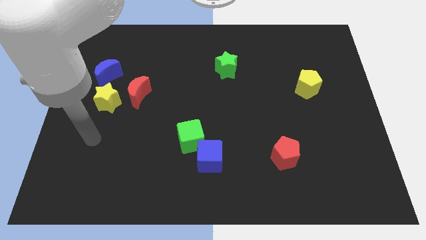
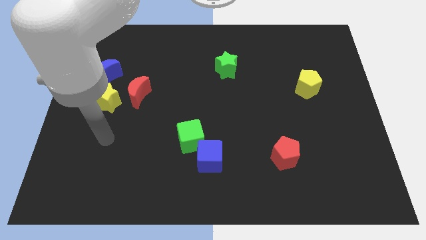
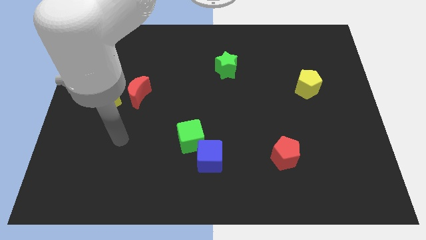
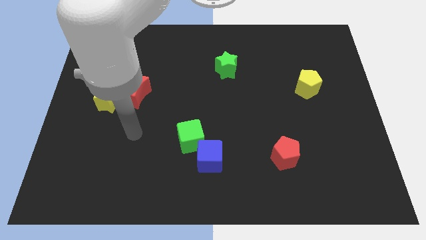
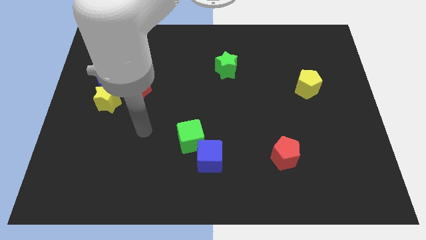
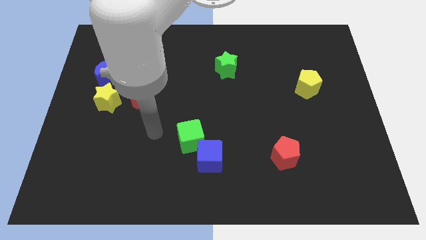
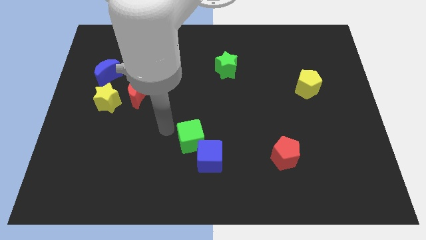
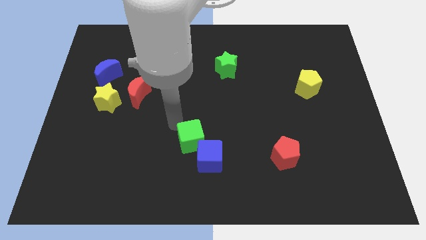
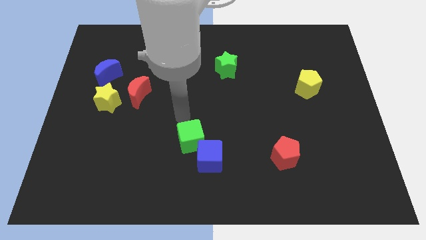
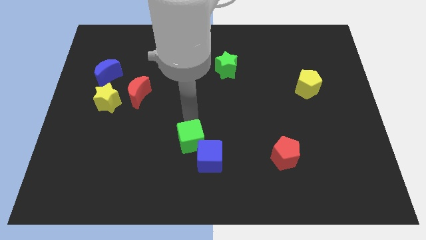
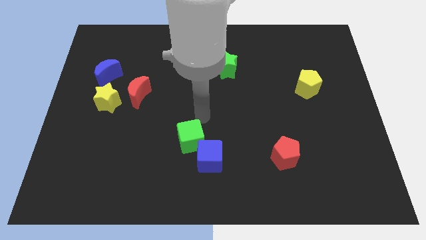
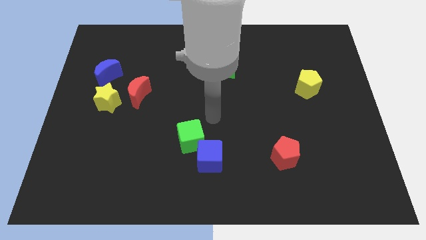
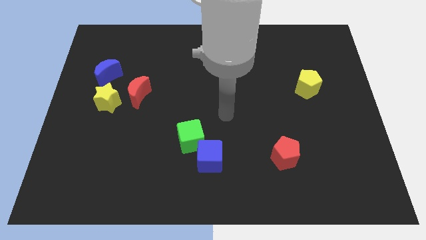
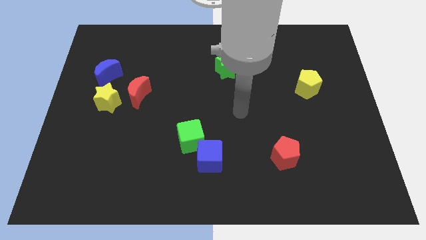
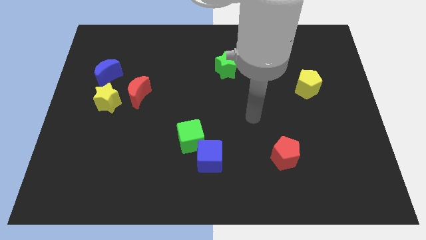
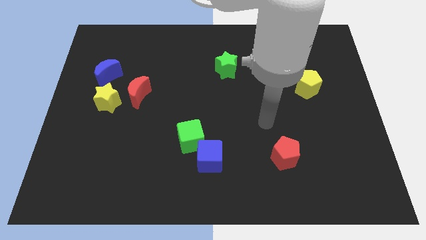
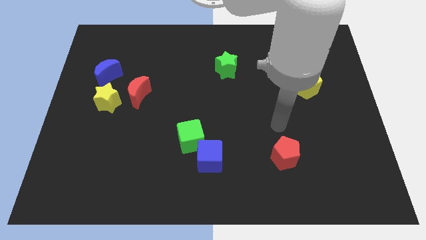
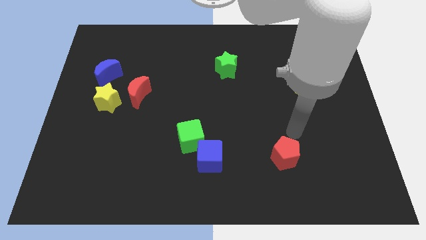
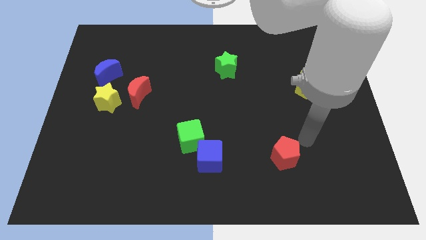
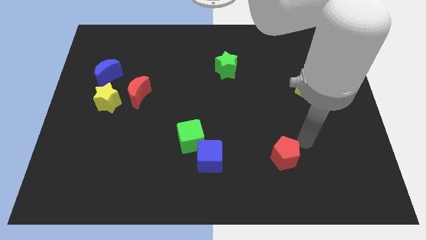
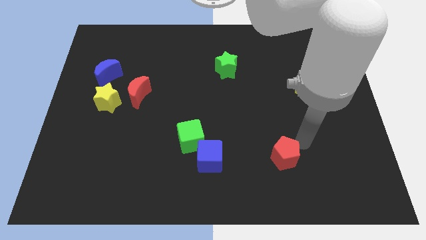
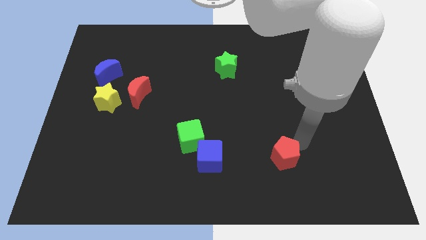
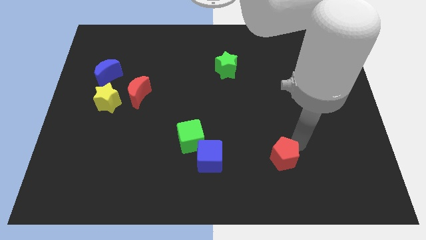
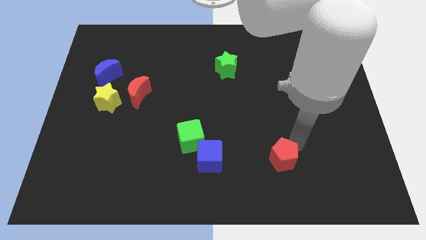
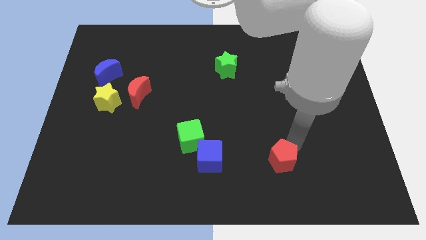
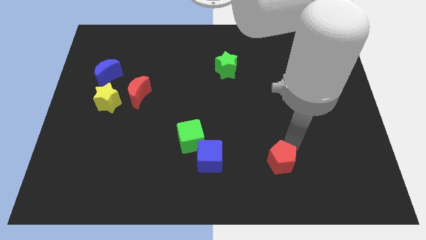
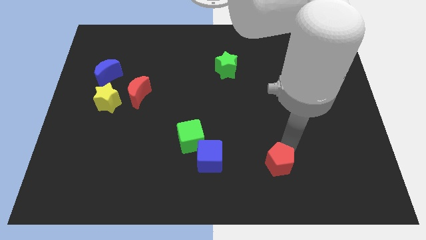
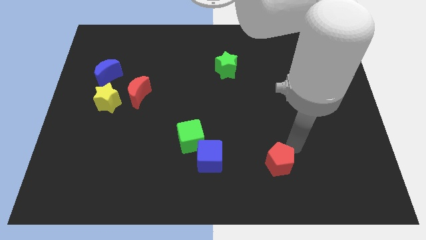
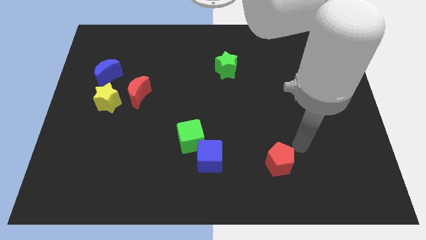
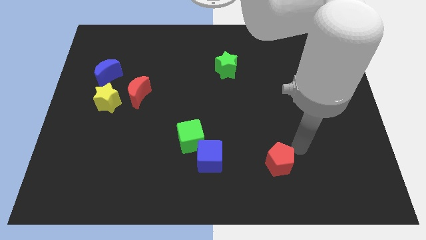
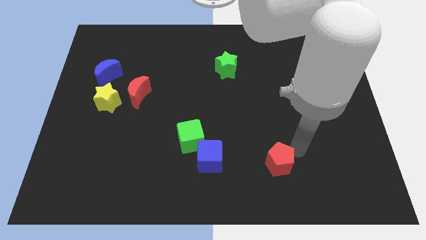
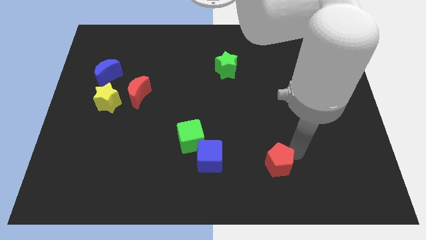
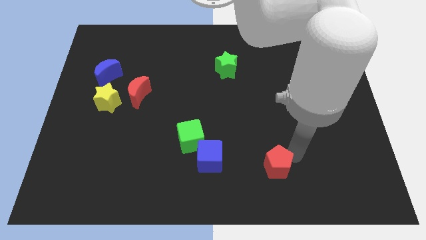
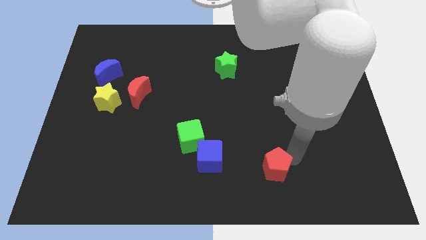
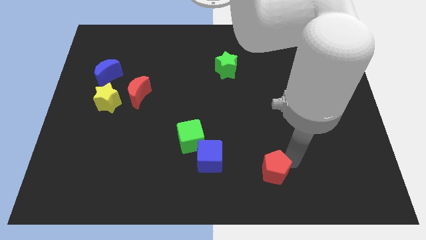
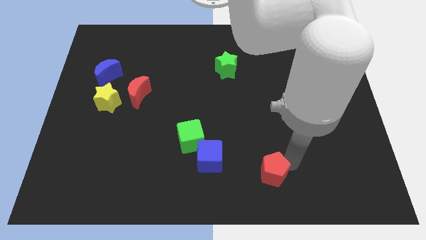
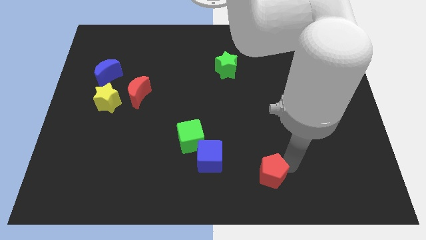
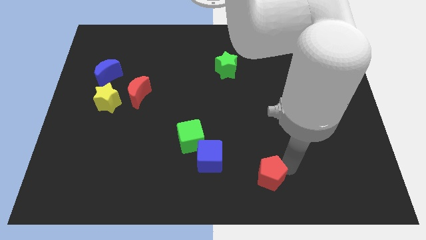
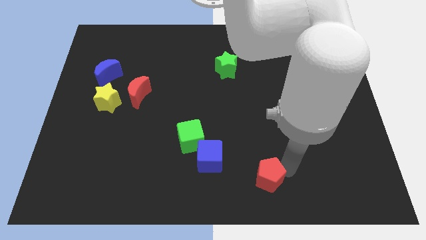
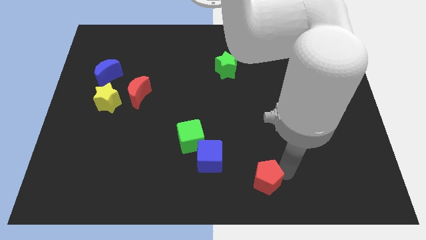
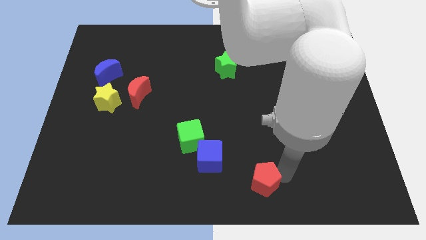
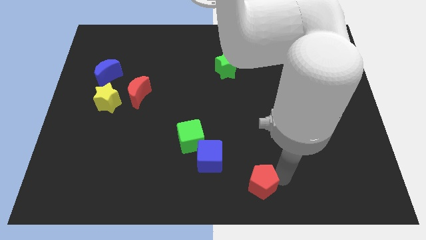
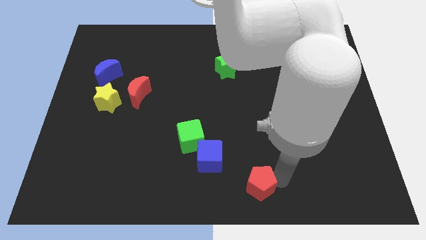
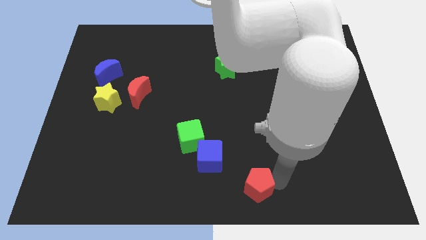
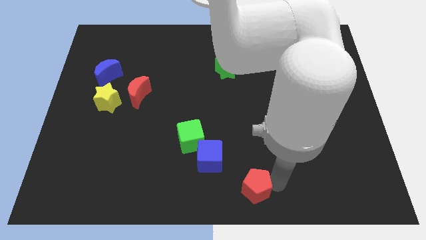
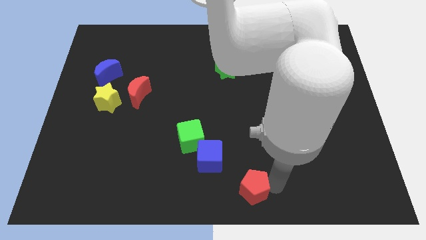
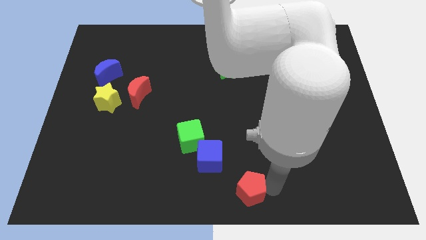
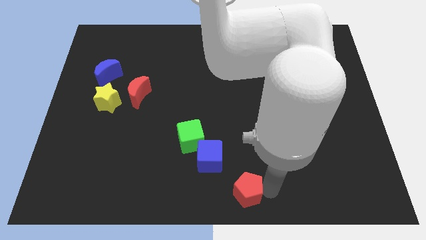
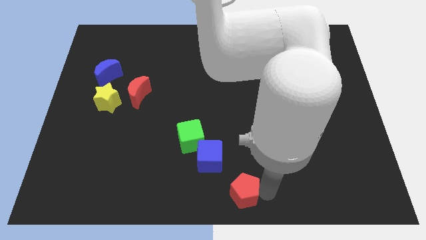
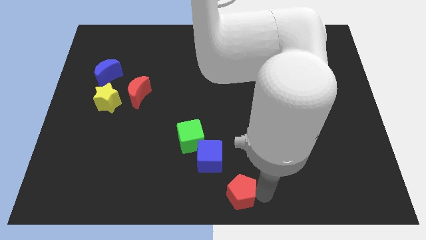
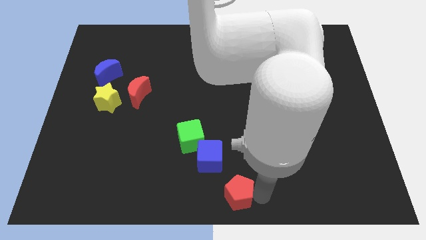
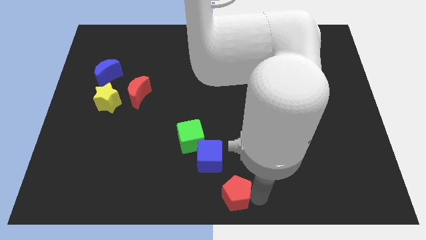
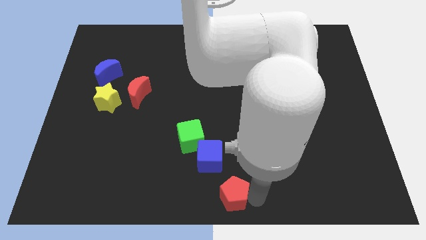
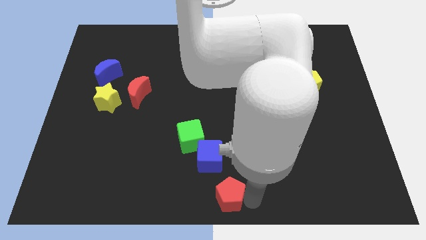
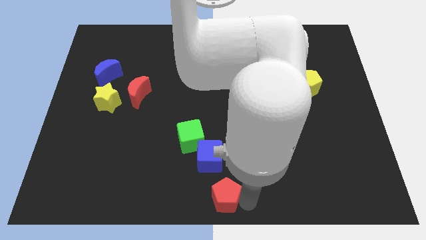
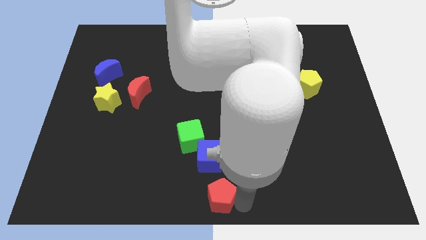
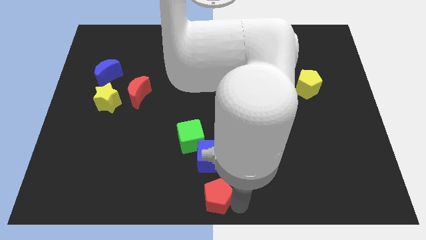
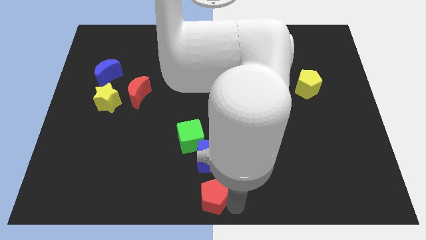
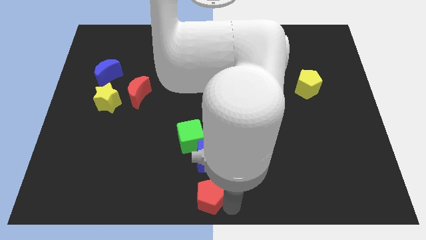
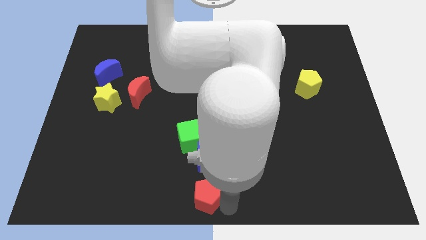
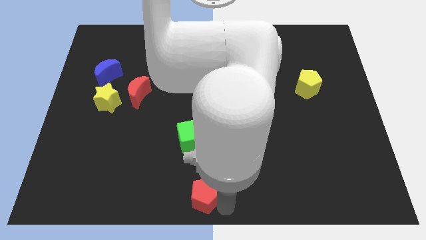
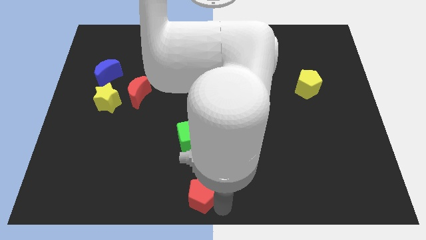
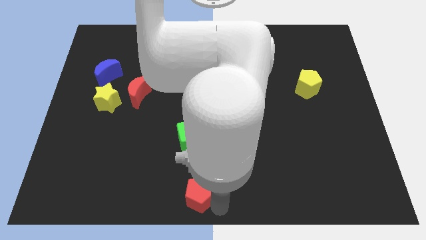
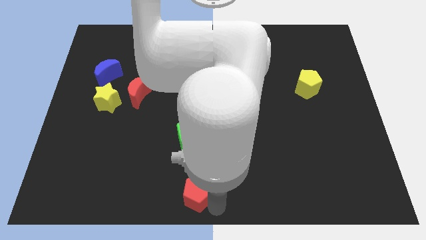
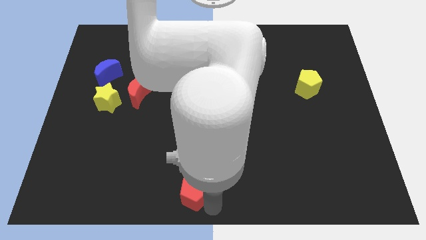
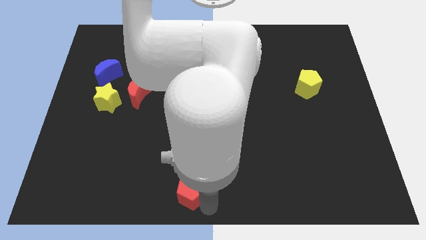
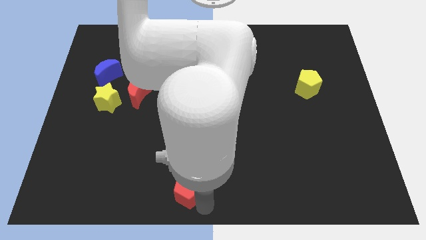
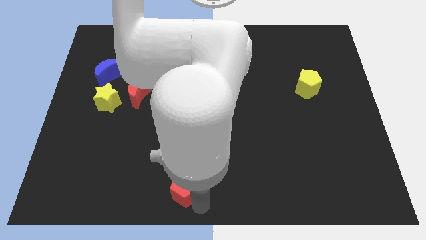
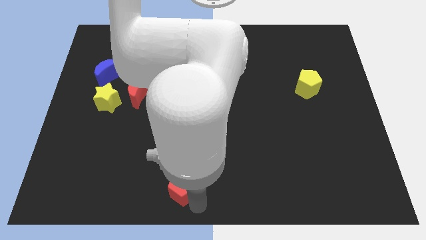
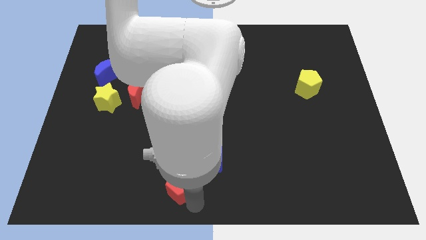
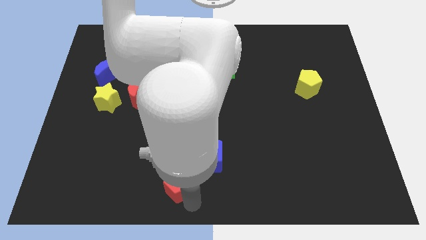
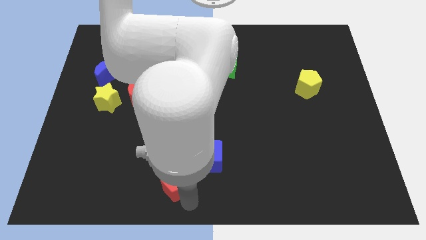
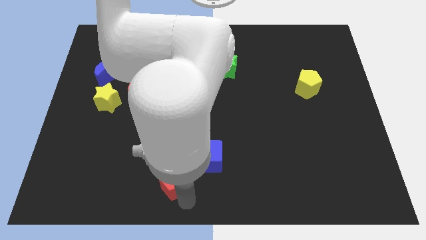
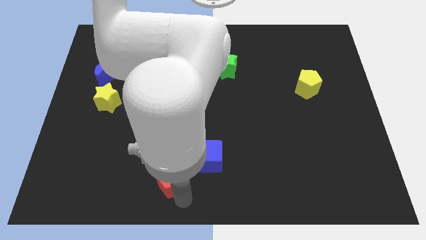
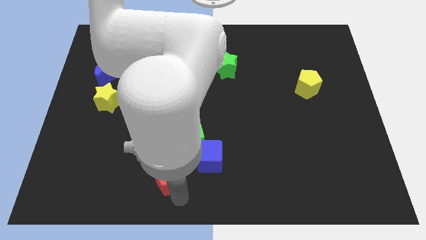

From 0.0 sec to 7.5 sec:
push the red pentagon diagonally down and to the left of the green cube
